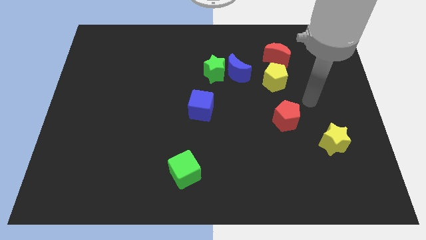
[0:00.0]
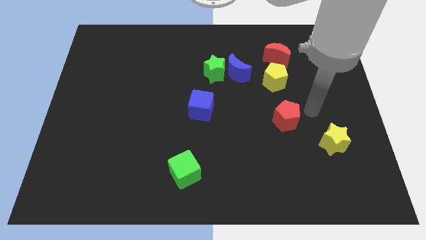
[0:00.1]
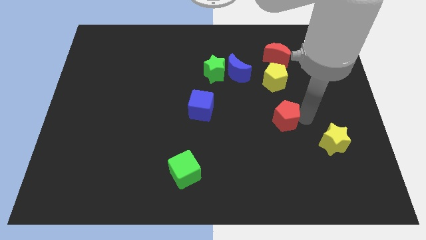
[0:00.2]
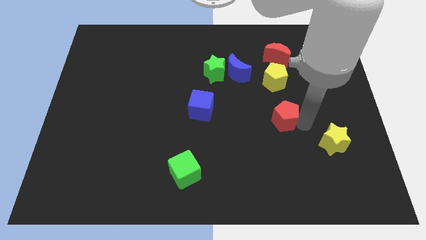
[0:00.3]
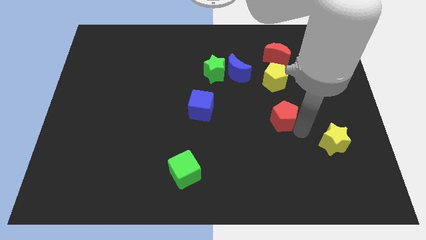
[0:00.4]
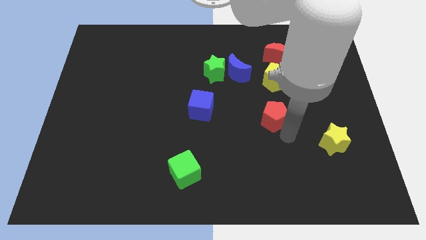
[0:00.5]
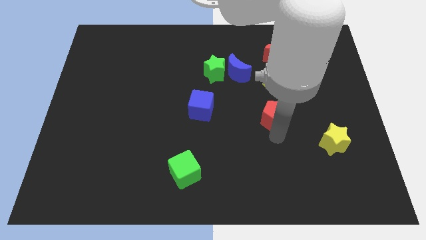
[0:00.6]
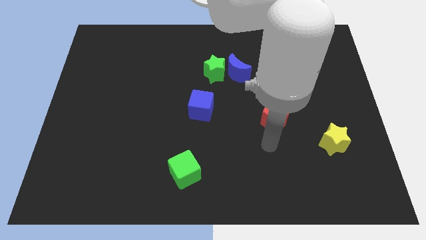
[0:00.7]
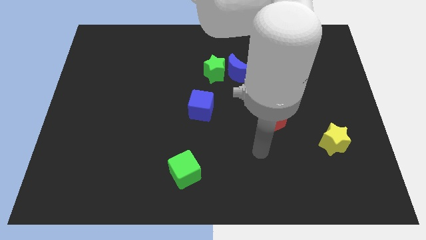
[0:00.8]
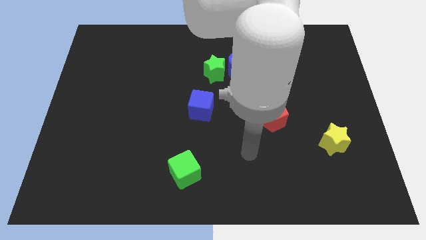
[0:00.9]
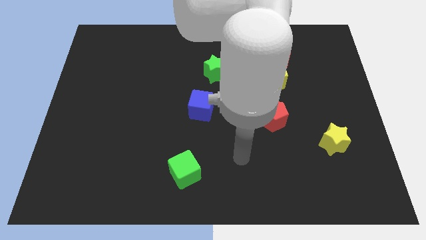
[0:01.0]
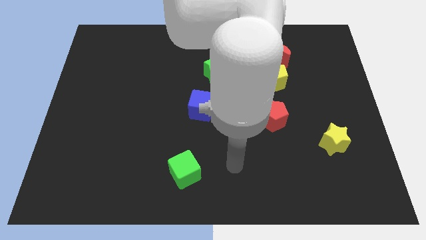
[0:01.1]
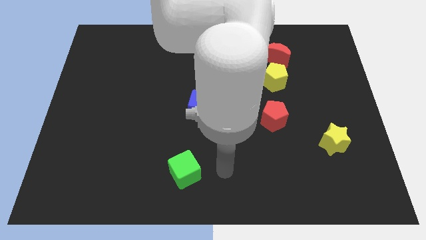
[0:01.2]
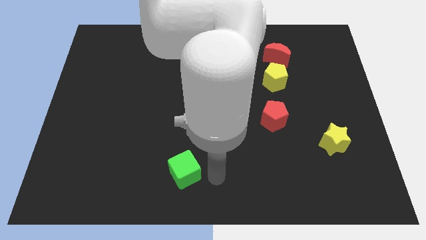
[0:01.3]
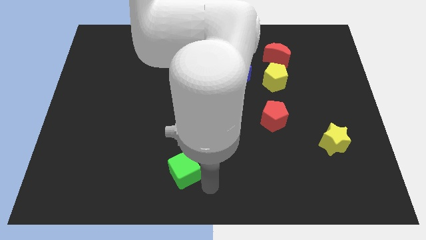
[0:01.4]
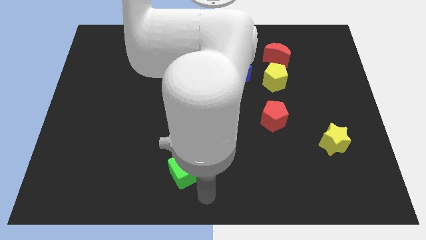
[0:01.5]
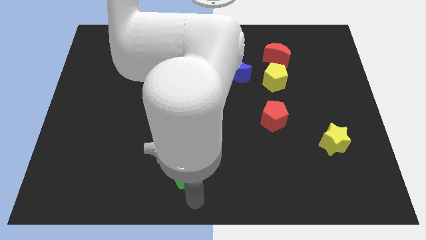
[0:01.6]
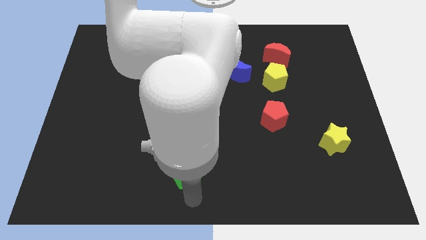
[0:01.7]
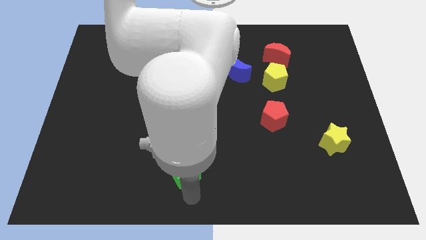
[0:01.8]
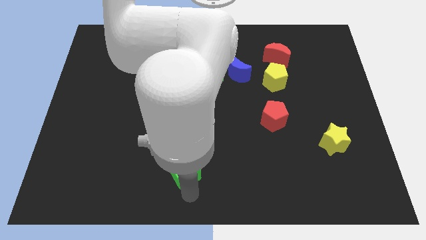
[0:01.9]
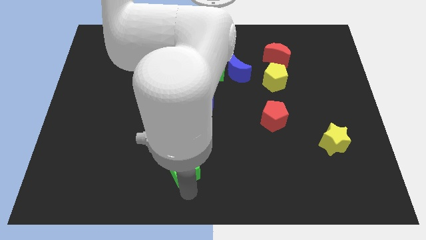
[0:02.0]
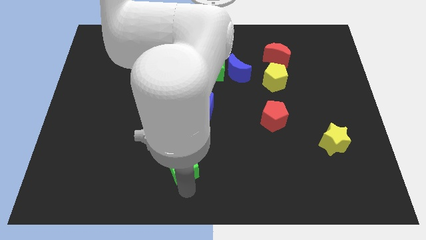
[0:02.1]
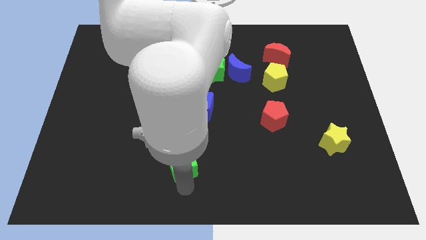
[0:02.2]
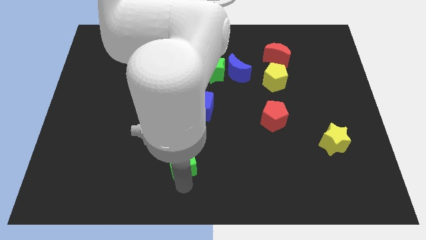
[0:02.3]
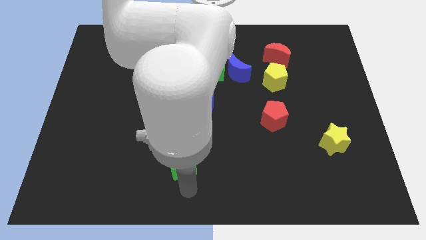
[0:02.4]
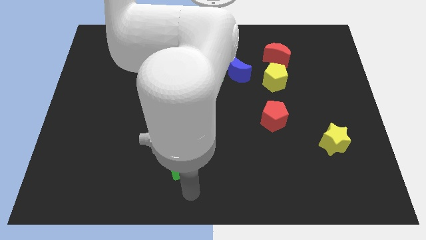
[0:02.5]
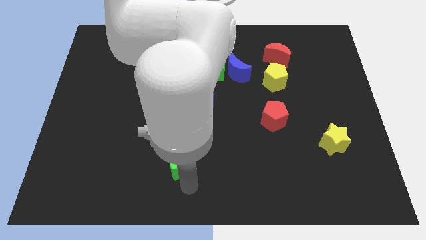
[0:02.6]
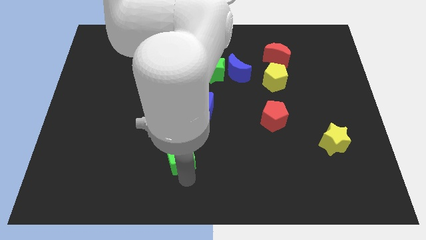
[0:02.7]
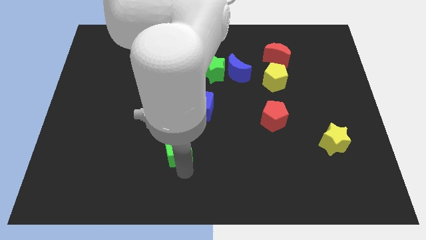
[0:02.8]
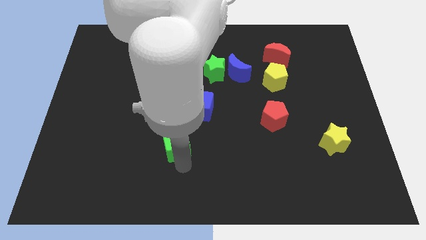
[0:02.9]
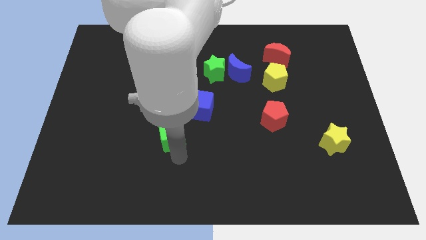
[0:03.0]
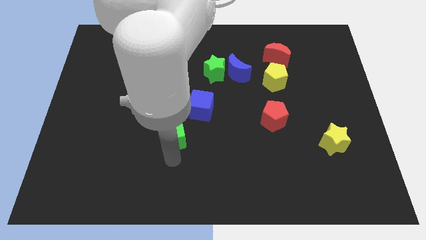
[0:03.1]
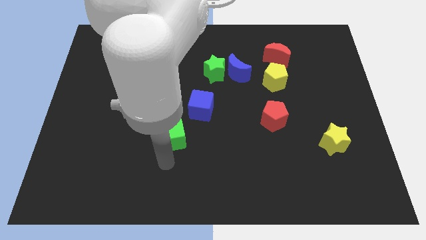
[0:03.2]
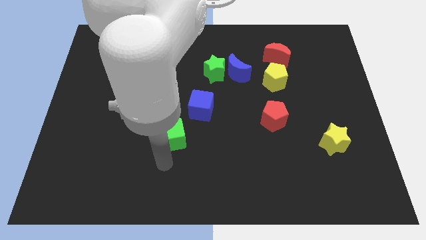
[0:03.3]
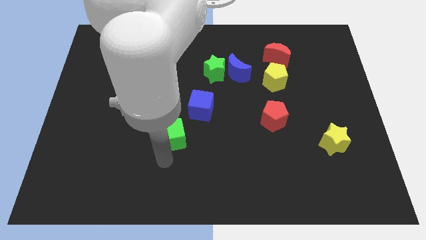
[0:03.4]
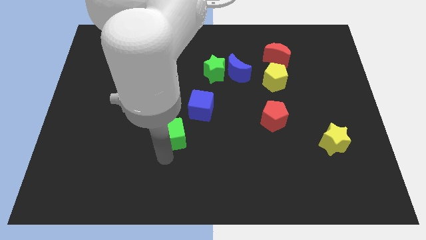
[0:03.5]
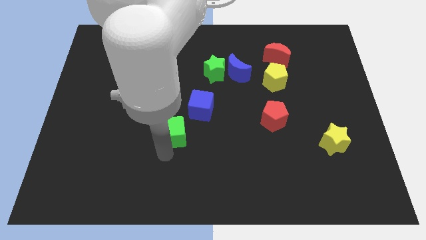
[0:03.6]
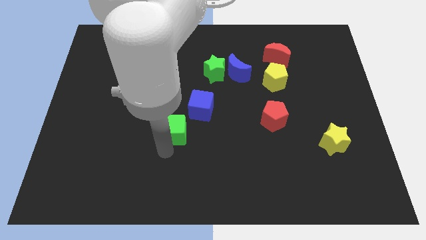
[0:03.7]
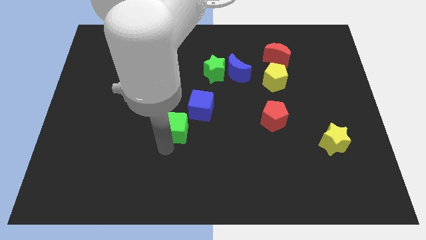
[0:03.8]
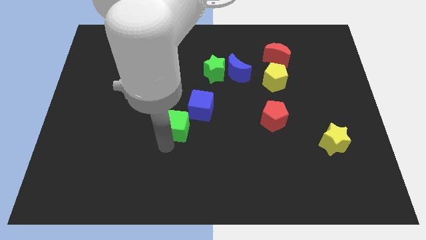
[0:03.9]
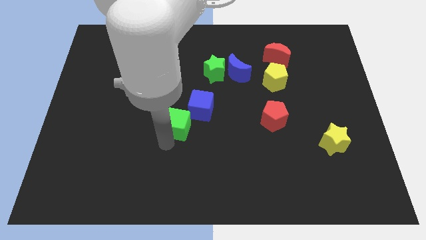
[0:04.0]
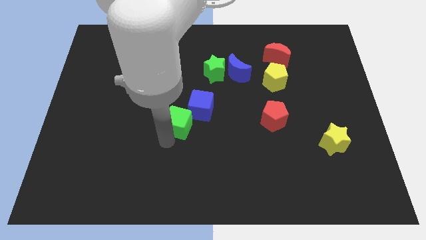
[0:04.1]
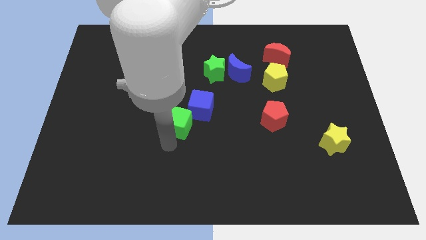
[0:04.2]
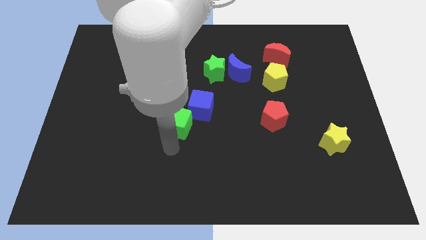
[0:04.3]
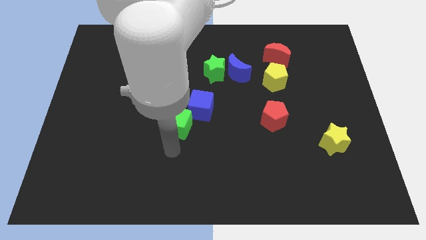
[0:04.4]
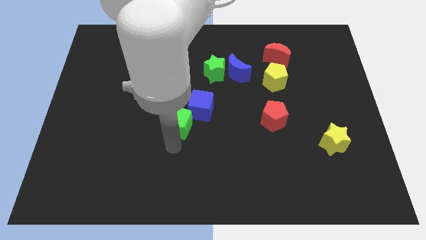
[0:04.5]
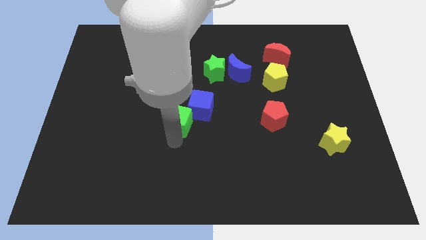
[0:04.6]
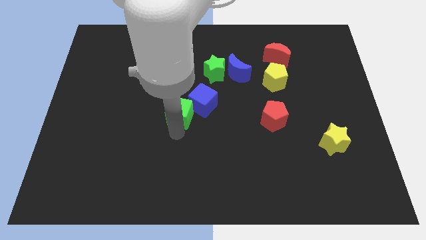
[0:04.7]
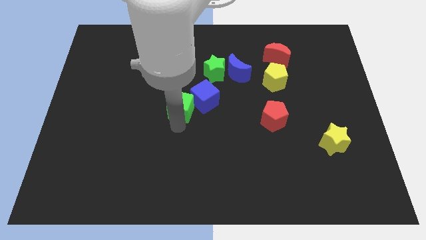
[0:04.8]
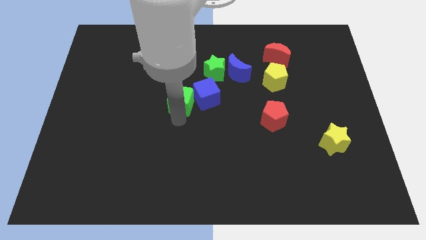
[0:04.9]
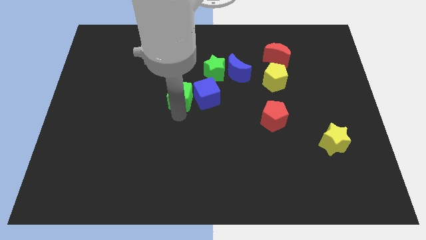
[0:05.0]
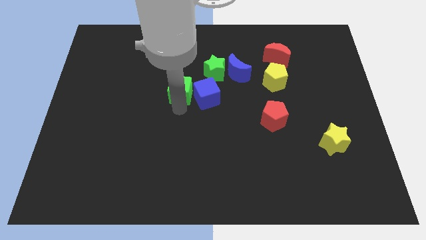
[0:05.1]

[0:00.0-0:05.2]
slide the green cube upwards

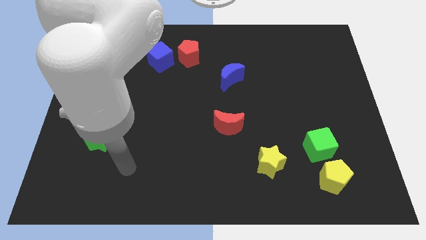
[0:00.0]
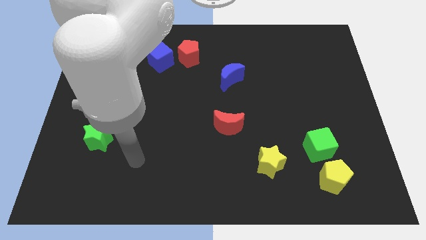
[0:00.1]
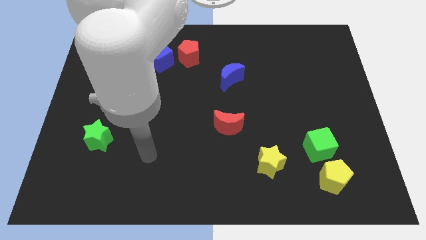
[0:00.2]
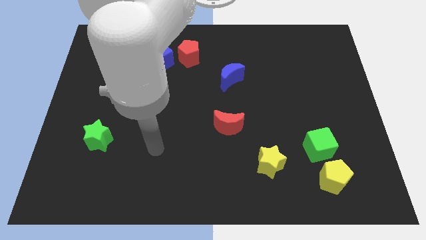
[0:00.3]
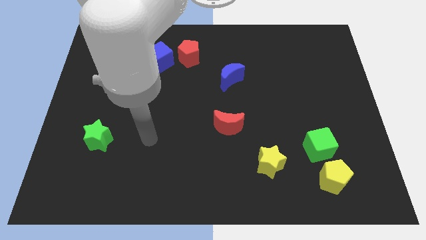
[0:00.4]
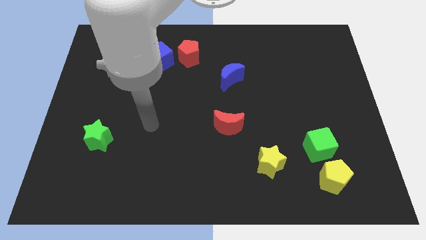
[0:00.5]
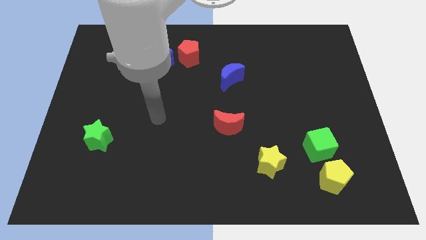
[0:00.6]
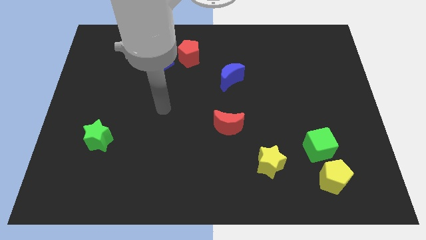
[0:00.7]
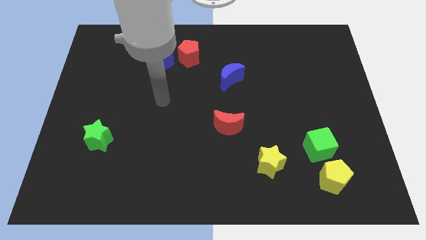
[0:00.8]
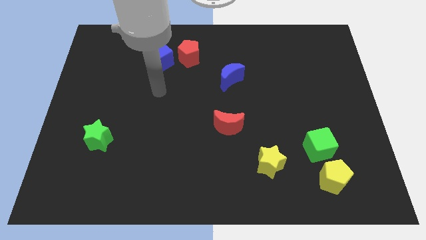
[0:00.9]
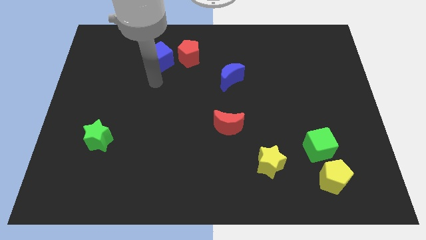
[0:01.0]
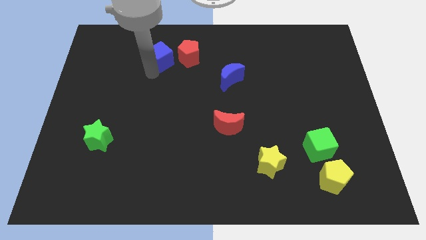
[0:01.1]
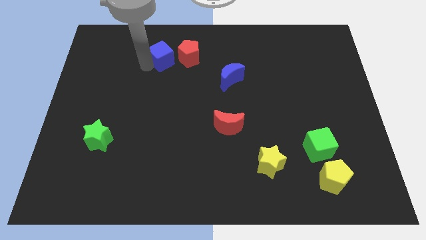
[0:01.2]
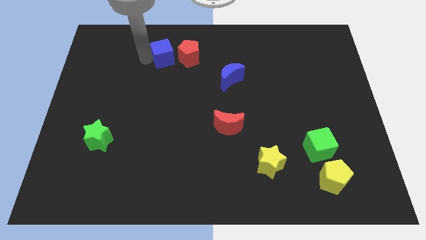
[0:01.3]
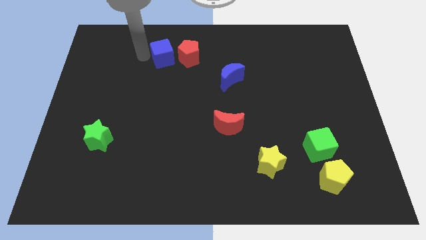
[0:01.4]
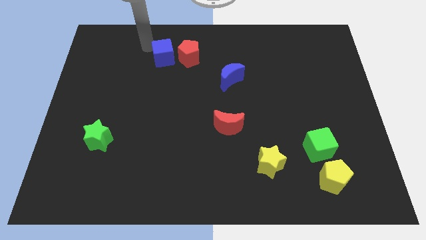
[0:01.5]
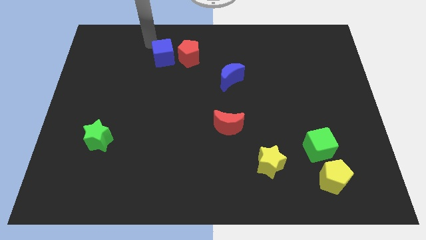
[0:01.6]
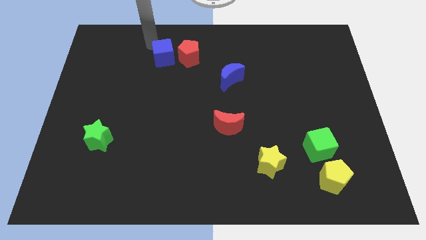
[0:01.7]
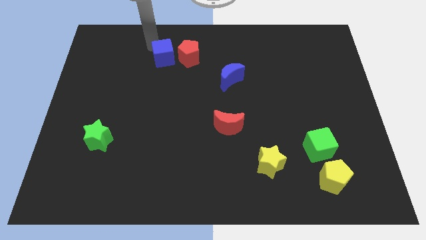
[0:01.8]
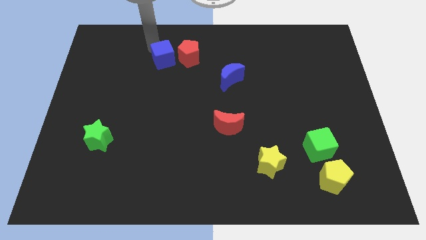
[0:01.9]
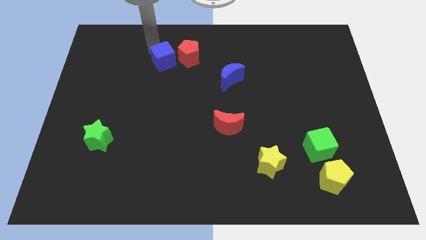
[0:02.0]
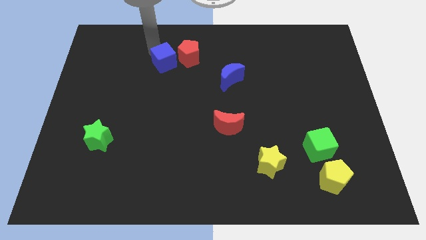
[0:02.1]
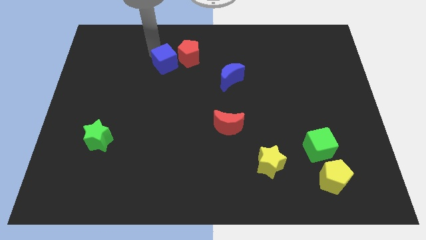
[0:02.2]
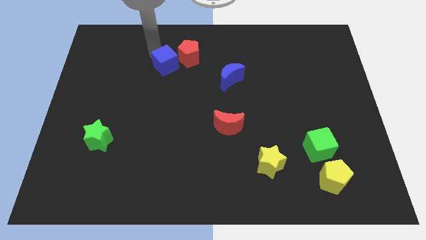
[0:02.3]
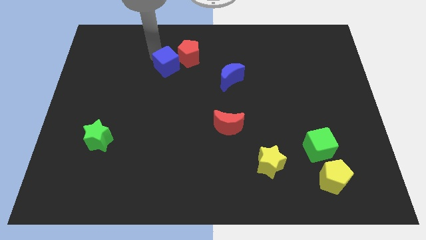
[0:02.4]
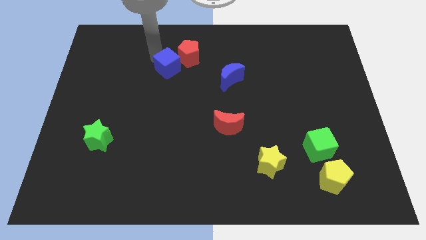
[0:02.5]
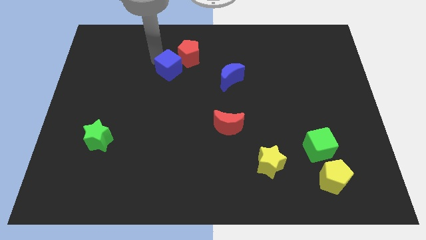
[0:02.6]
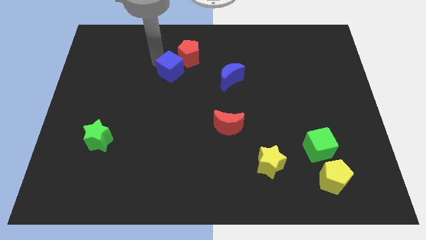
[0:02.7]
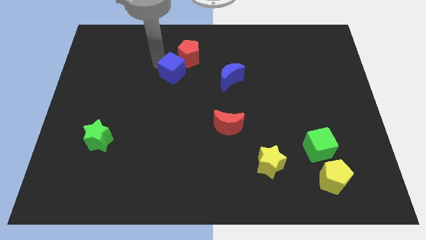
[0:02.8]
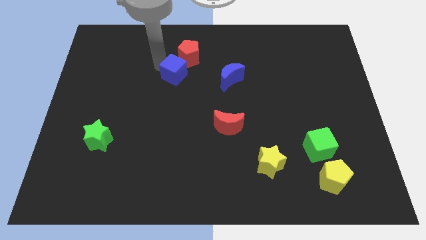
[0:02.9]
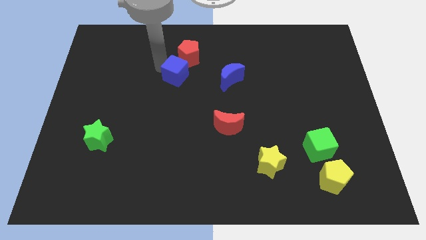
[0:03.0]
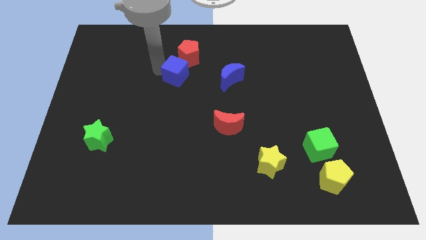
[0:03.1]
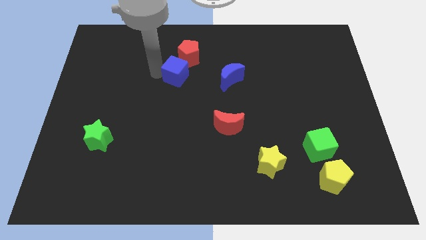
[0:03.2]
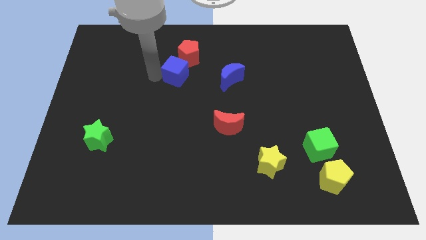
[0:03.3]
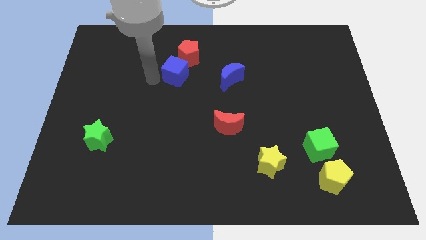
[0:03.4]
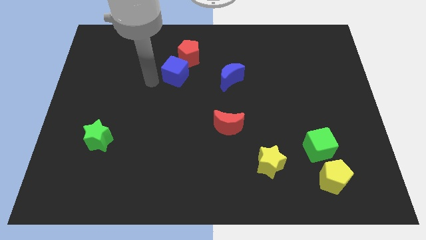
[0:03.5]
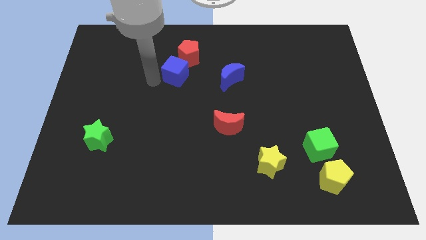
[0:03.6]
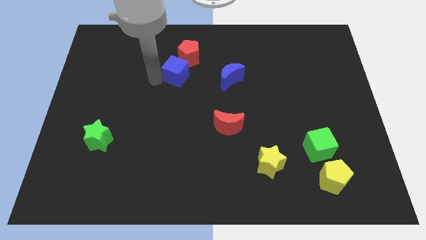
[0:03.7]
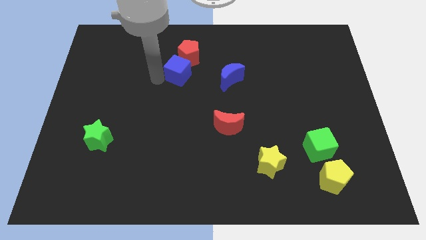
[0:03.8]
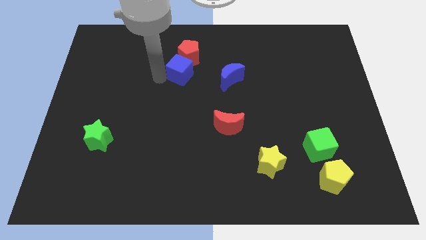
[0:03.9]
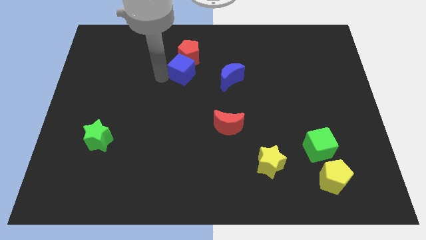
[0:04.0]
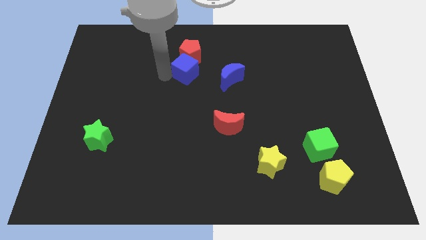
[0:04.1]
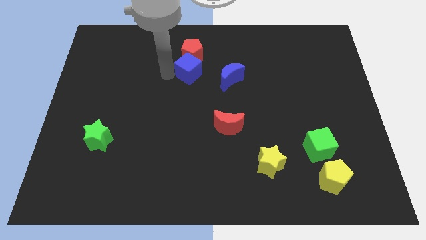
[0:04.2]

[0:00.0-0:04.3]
slide the blue cube a little bit to the right
